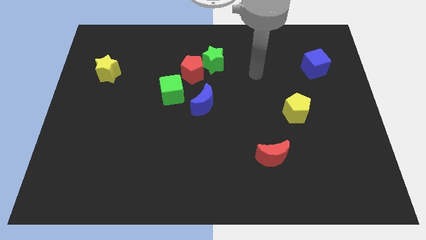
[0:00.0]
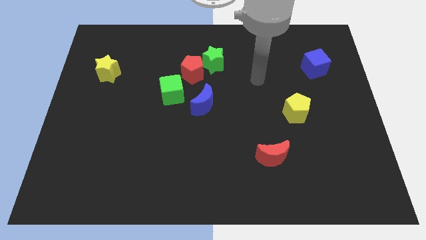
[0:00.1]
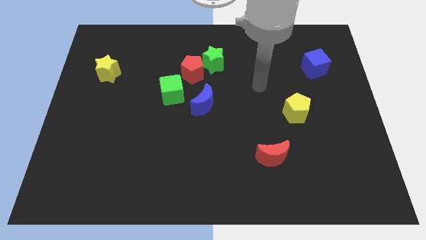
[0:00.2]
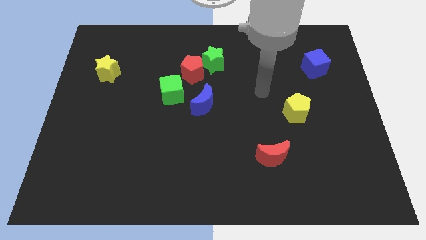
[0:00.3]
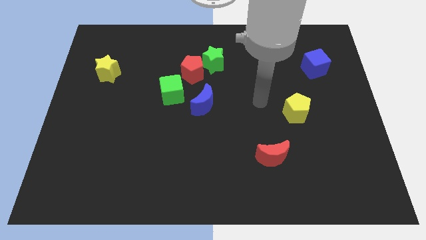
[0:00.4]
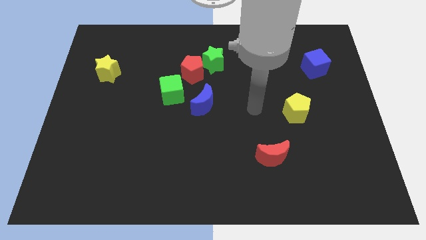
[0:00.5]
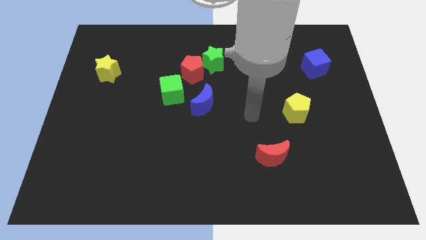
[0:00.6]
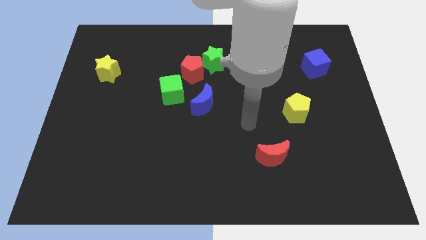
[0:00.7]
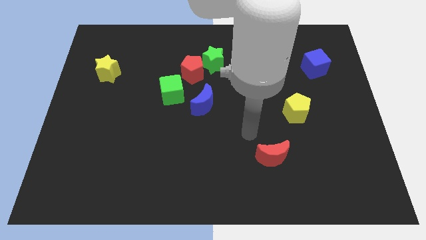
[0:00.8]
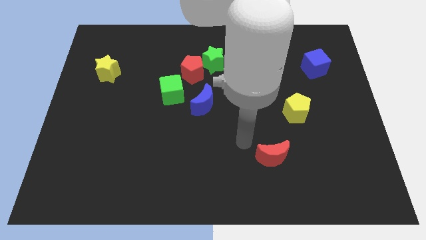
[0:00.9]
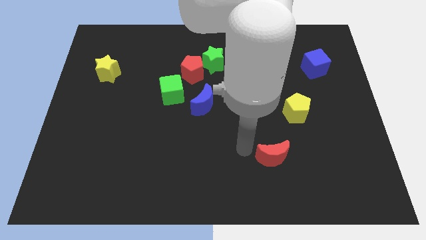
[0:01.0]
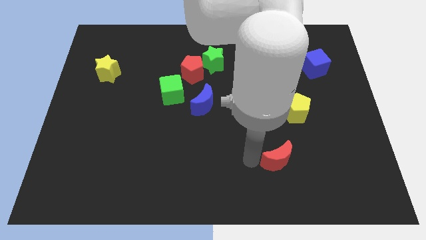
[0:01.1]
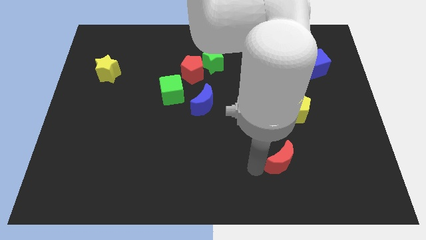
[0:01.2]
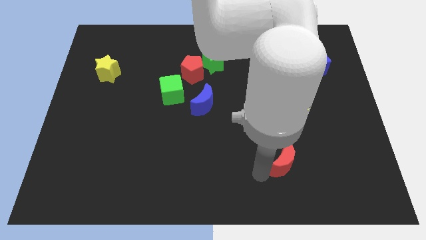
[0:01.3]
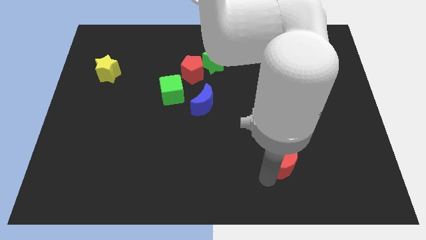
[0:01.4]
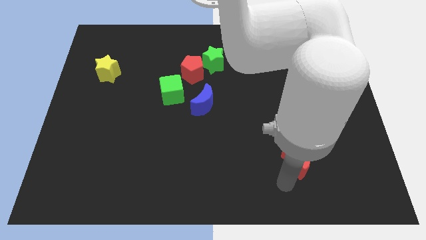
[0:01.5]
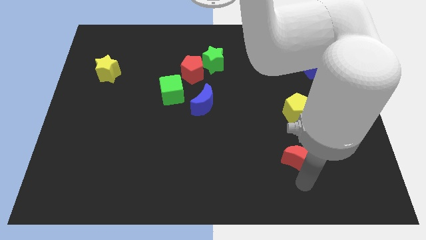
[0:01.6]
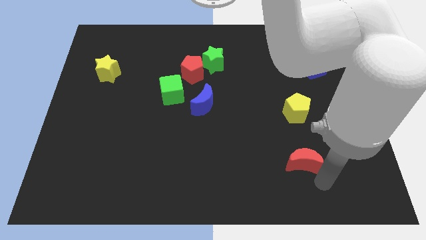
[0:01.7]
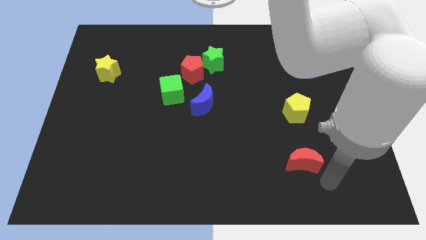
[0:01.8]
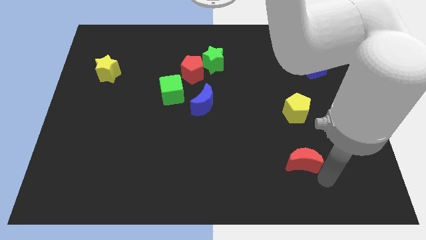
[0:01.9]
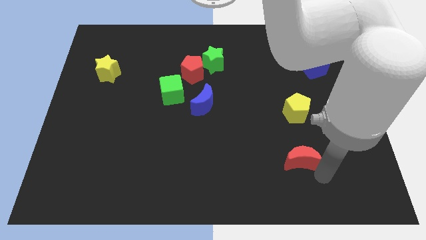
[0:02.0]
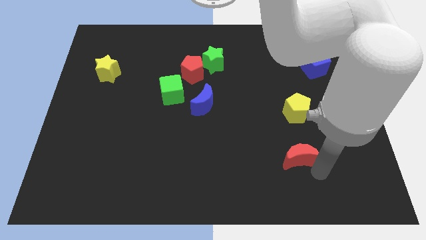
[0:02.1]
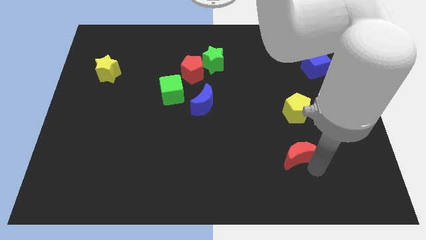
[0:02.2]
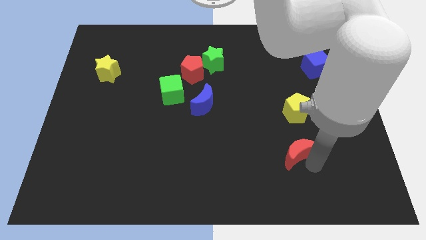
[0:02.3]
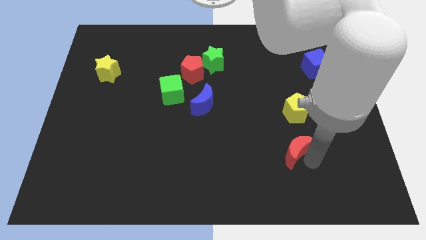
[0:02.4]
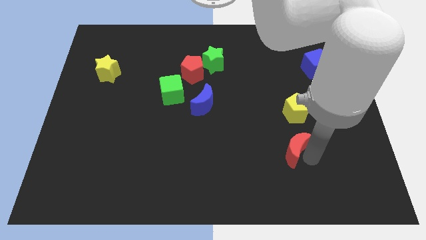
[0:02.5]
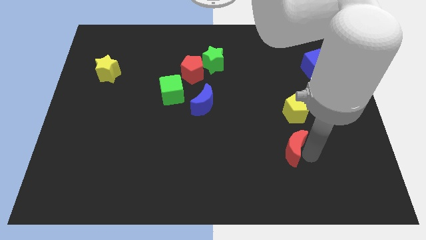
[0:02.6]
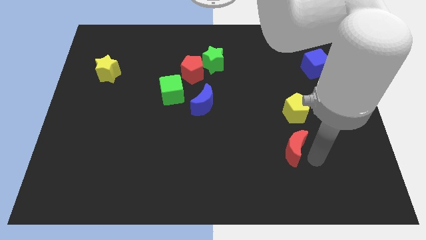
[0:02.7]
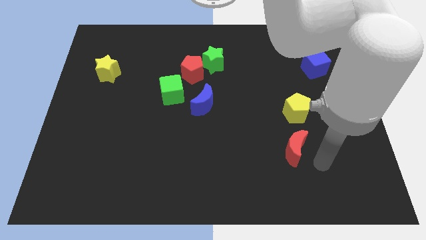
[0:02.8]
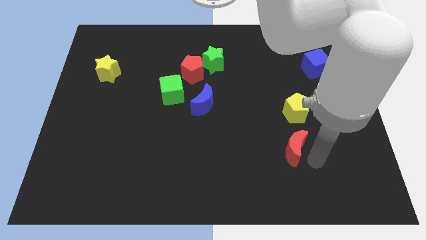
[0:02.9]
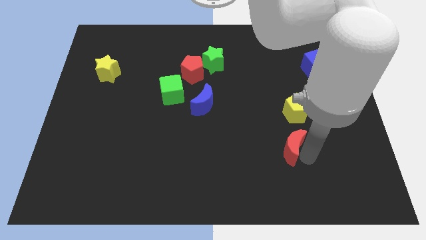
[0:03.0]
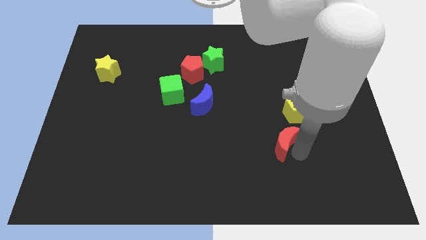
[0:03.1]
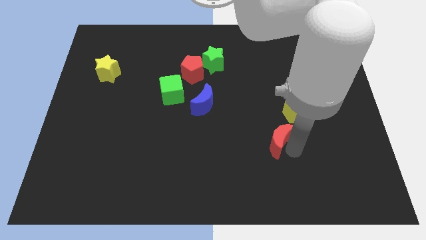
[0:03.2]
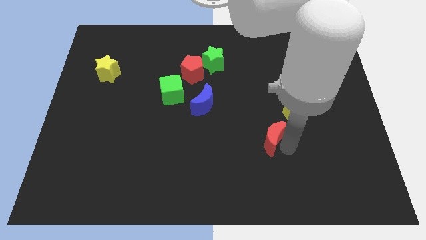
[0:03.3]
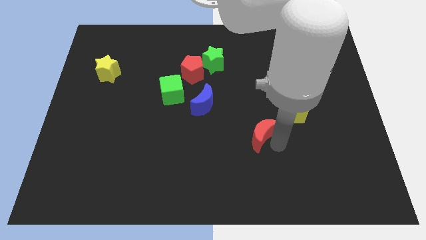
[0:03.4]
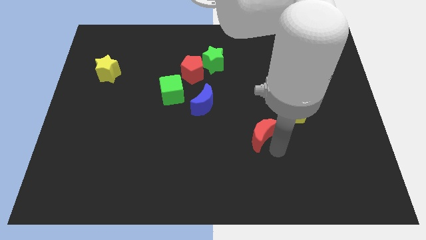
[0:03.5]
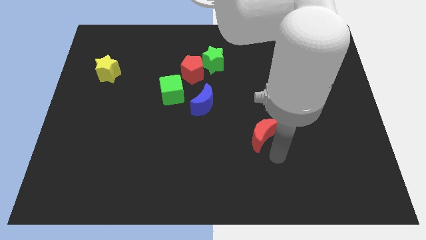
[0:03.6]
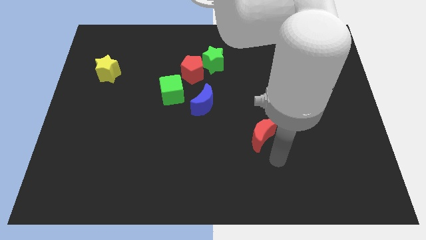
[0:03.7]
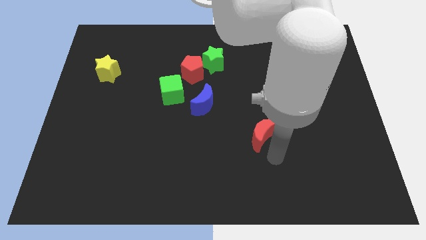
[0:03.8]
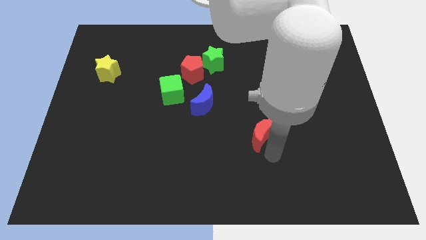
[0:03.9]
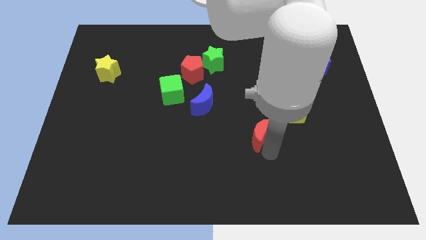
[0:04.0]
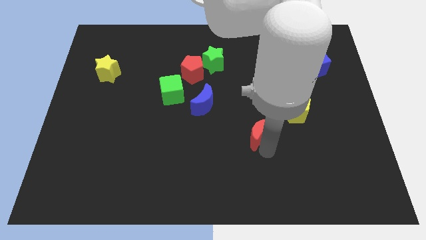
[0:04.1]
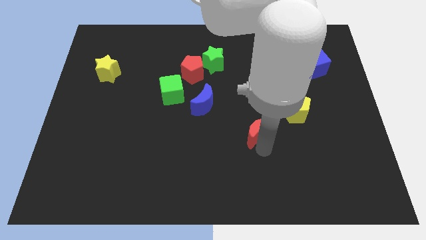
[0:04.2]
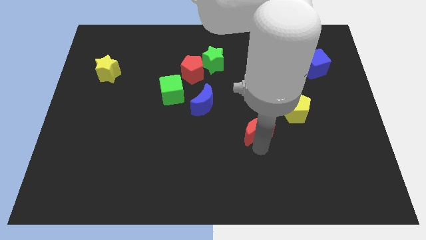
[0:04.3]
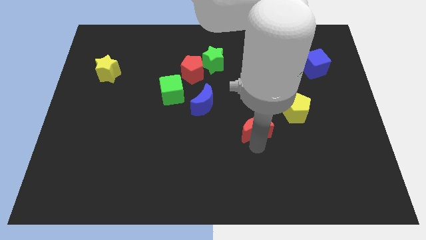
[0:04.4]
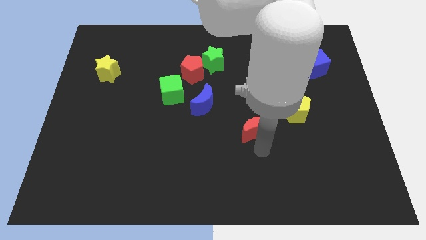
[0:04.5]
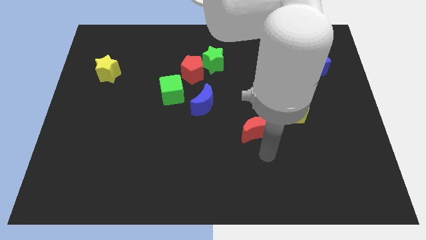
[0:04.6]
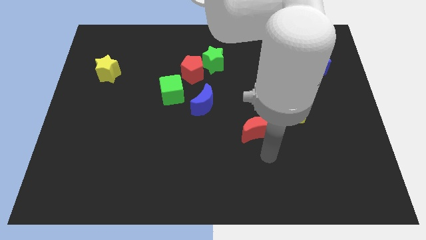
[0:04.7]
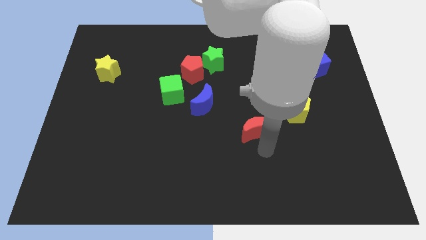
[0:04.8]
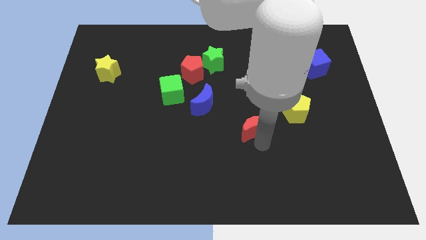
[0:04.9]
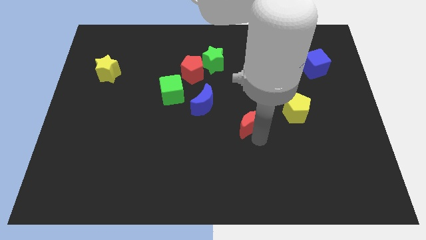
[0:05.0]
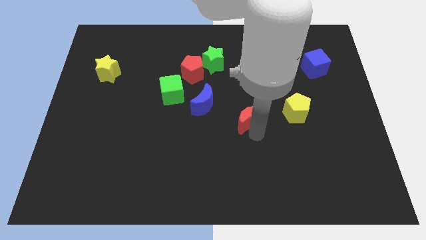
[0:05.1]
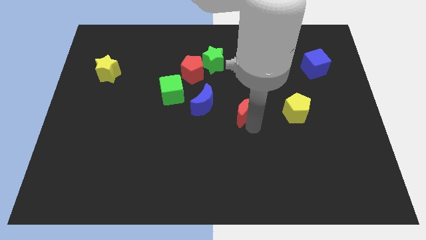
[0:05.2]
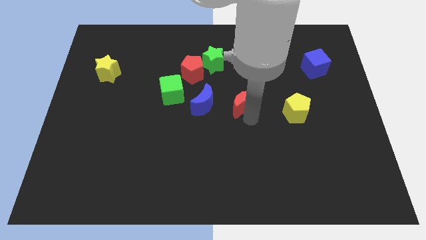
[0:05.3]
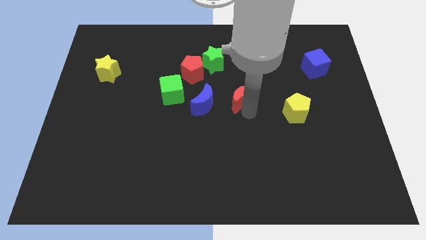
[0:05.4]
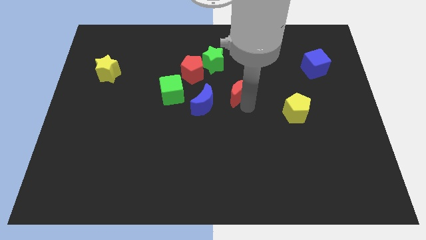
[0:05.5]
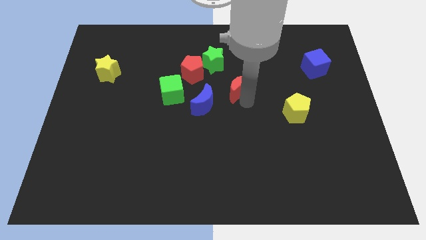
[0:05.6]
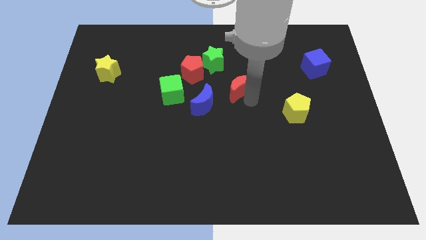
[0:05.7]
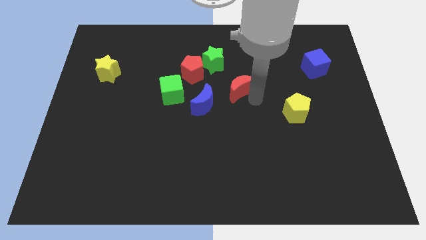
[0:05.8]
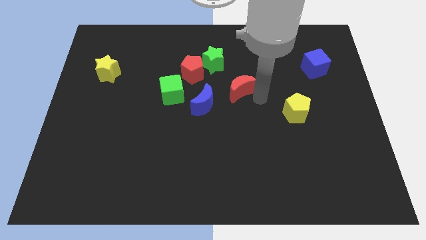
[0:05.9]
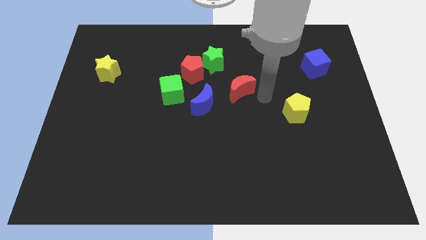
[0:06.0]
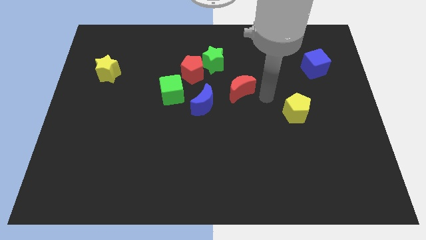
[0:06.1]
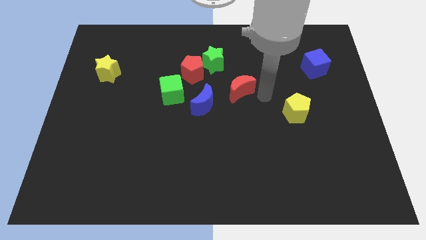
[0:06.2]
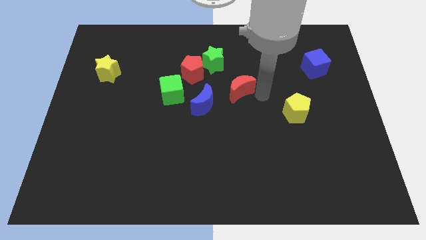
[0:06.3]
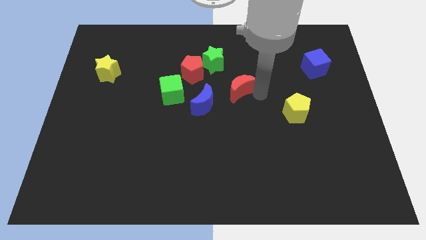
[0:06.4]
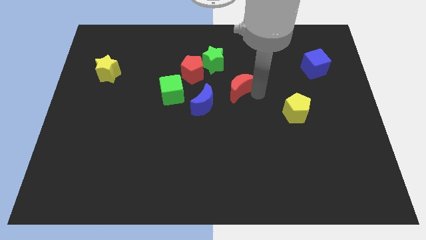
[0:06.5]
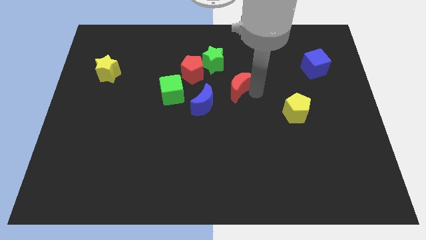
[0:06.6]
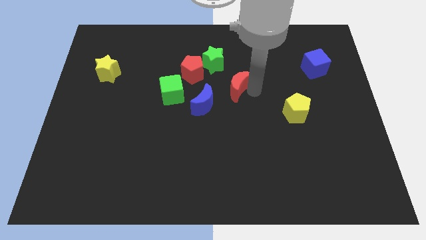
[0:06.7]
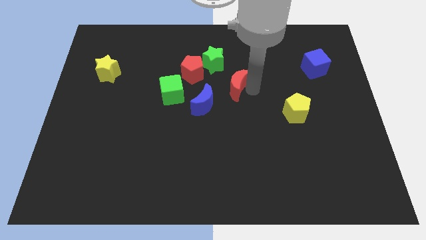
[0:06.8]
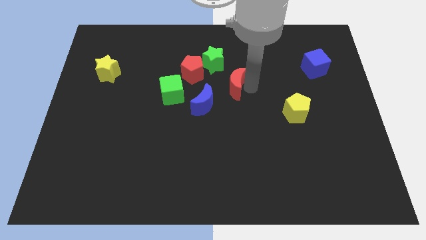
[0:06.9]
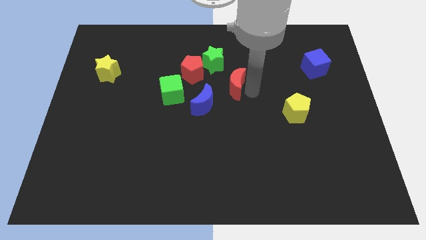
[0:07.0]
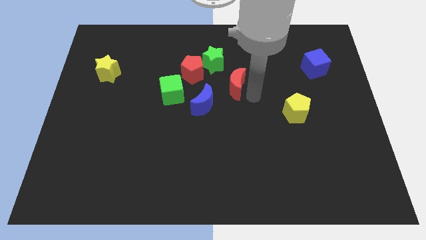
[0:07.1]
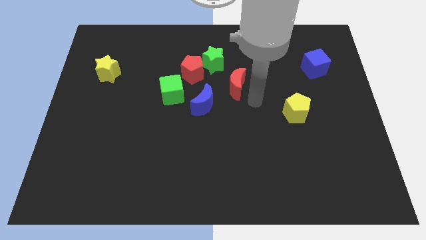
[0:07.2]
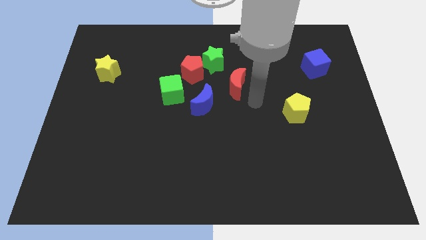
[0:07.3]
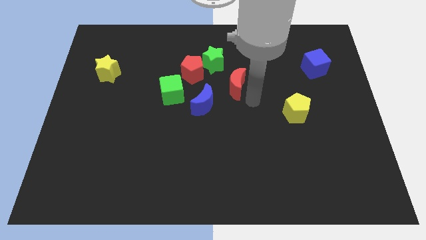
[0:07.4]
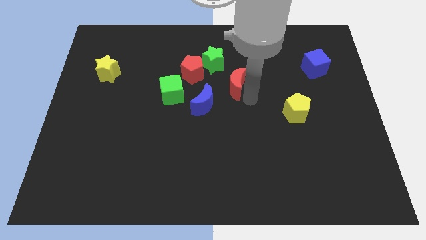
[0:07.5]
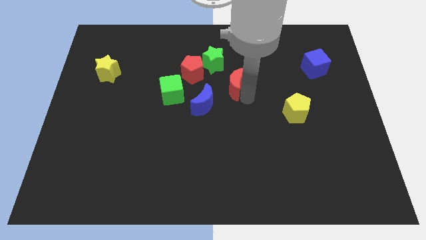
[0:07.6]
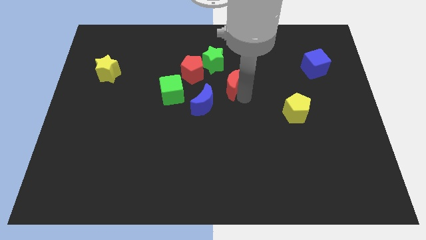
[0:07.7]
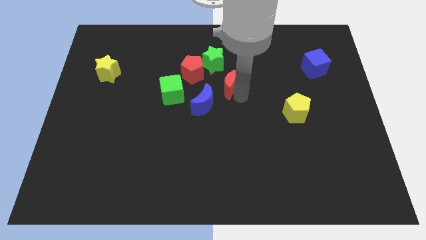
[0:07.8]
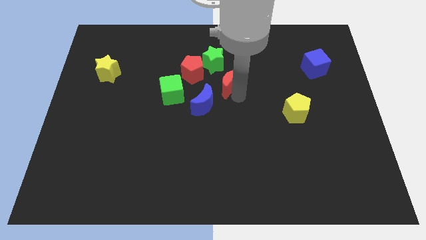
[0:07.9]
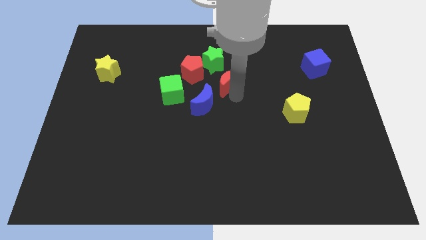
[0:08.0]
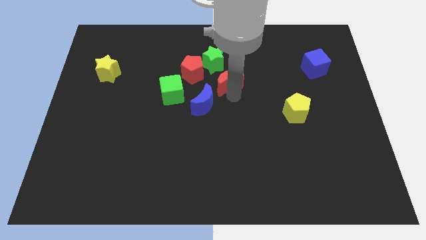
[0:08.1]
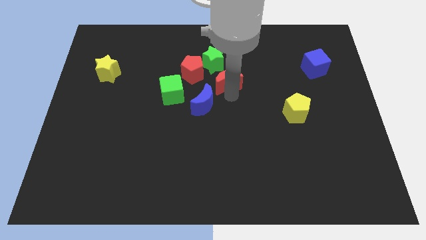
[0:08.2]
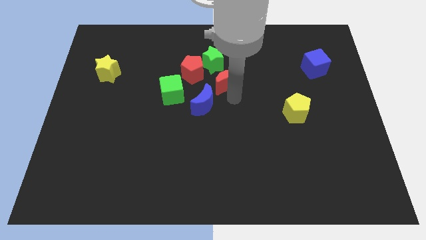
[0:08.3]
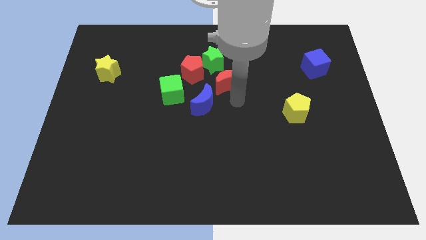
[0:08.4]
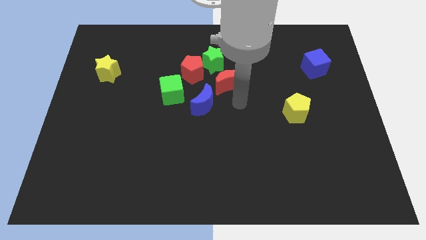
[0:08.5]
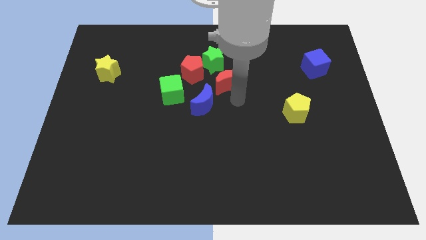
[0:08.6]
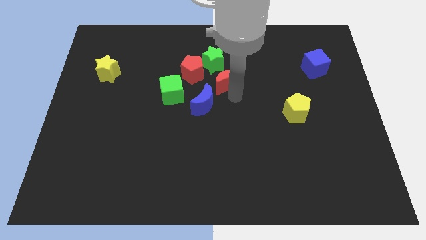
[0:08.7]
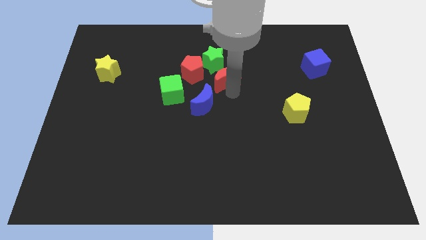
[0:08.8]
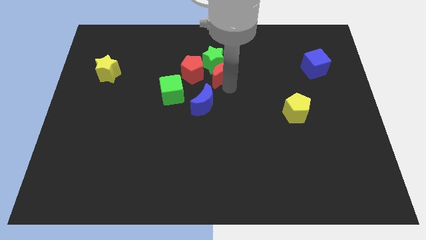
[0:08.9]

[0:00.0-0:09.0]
slide the red moon towards the green star
